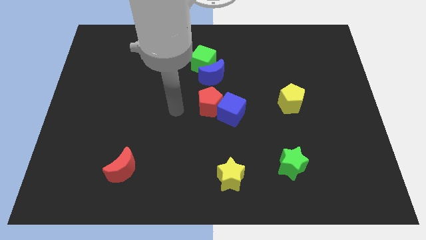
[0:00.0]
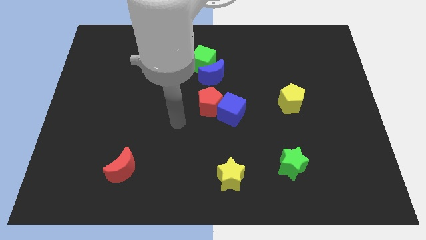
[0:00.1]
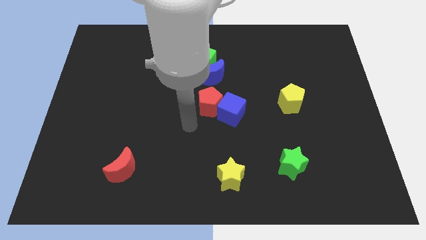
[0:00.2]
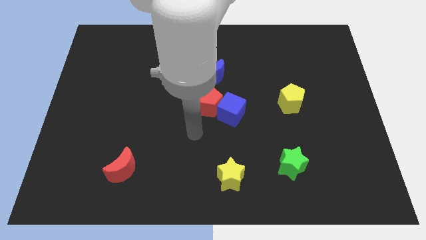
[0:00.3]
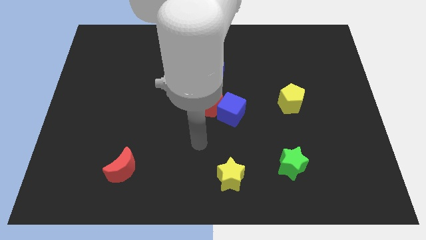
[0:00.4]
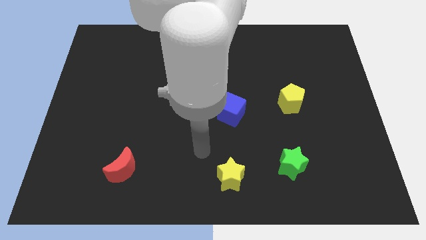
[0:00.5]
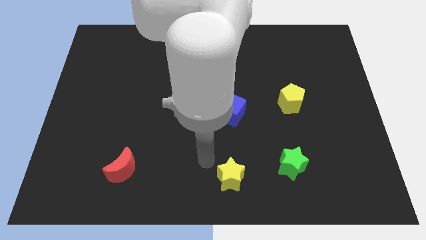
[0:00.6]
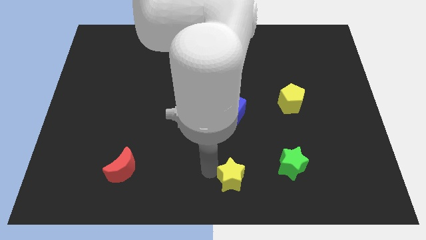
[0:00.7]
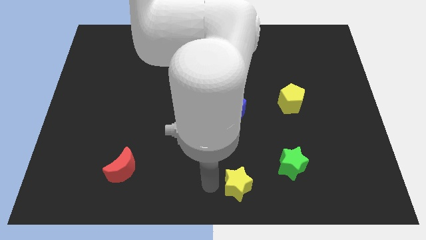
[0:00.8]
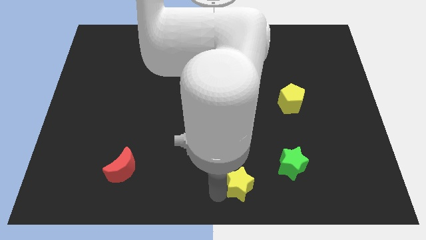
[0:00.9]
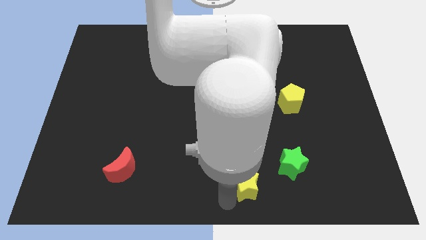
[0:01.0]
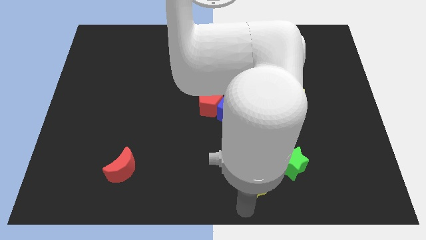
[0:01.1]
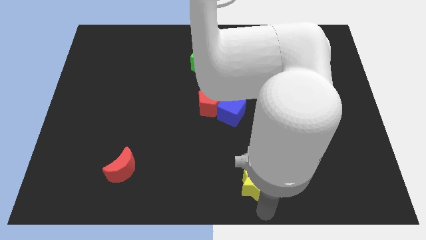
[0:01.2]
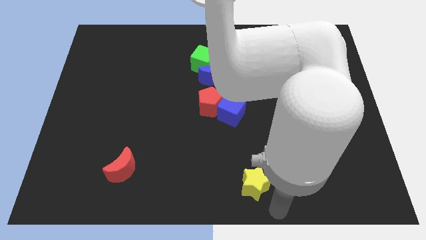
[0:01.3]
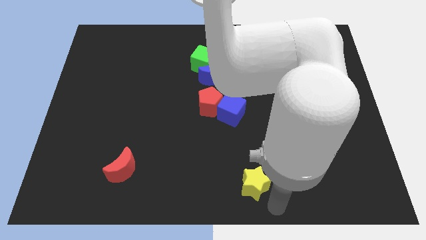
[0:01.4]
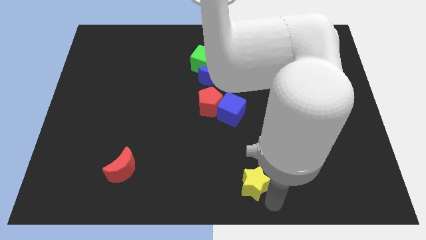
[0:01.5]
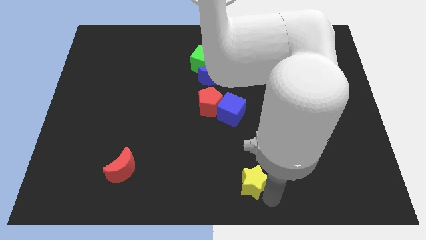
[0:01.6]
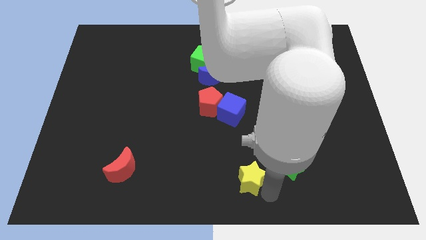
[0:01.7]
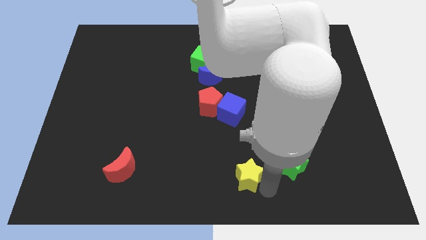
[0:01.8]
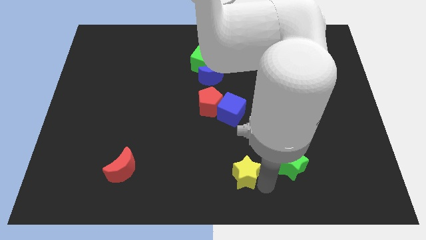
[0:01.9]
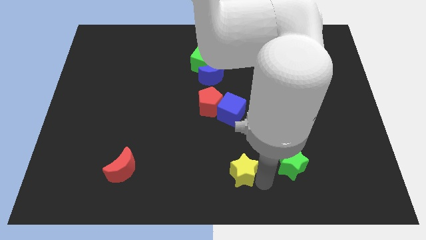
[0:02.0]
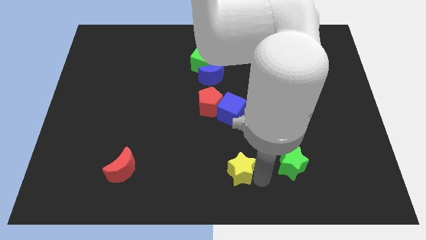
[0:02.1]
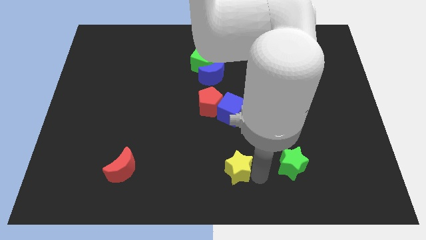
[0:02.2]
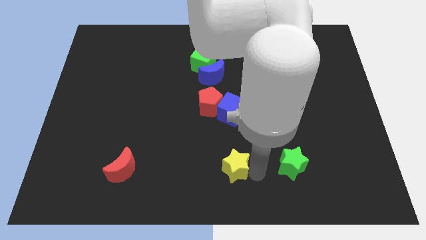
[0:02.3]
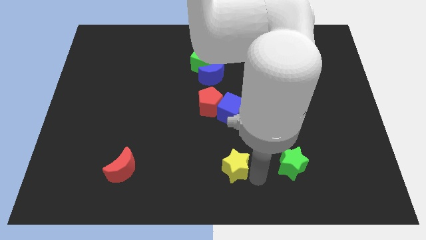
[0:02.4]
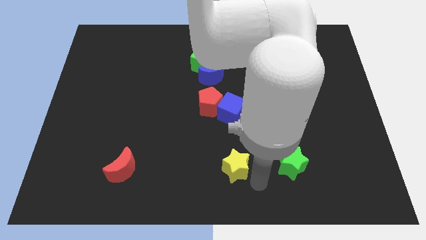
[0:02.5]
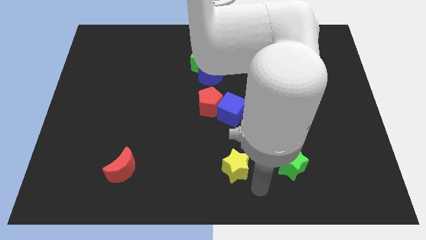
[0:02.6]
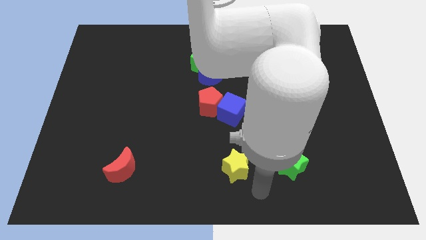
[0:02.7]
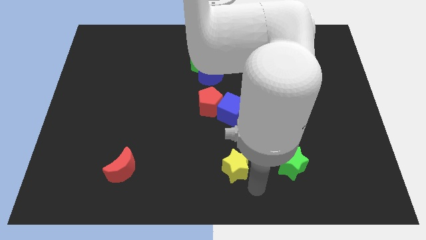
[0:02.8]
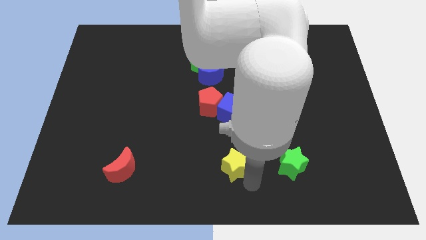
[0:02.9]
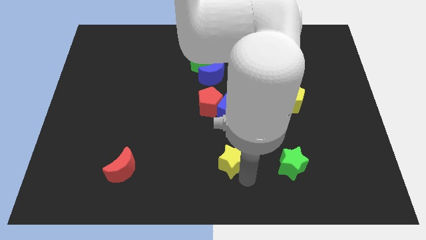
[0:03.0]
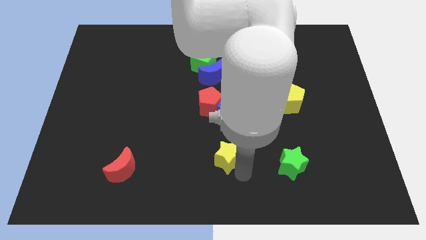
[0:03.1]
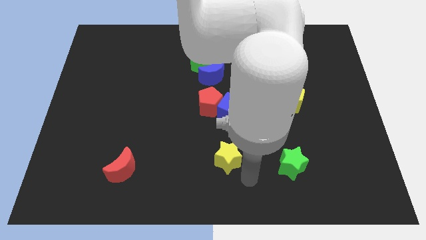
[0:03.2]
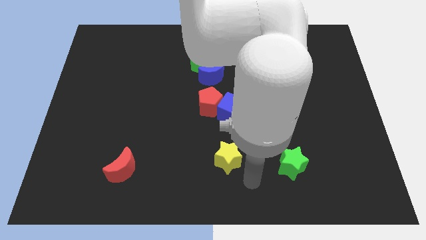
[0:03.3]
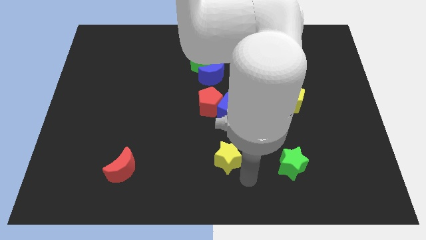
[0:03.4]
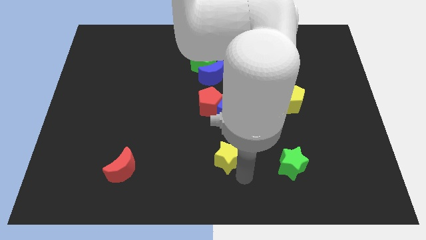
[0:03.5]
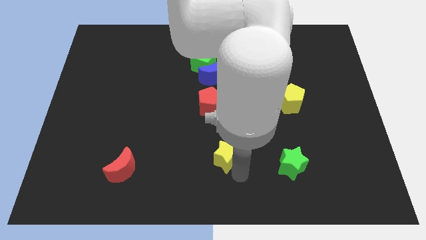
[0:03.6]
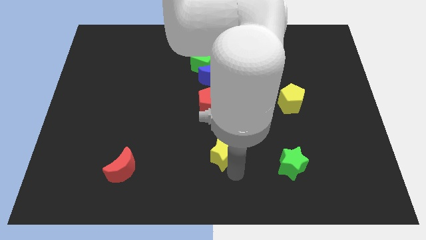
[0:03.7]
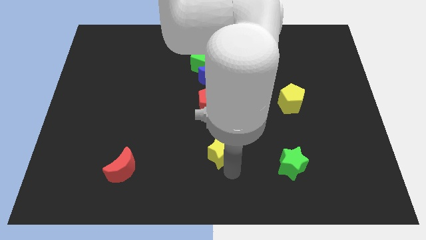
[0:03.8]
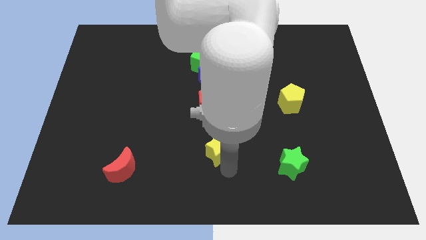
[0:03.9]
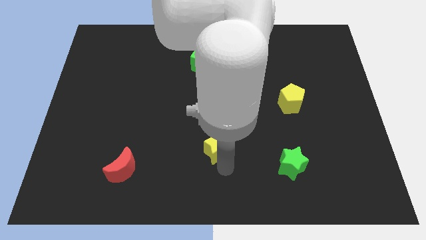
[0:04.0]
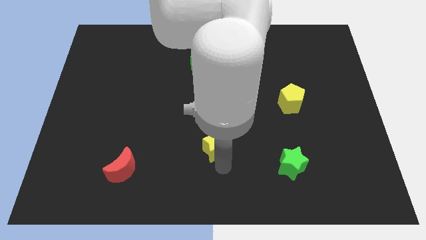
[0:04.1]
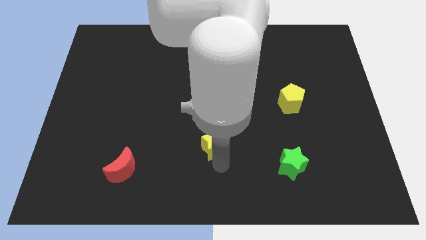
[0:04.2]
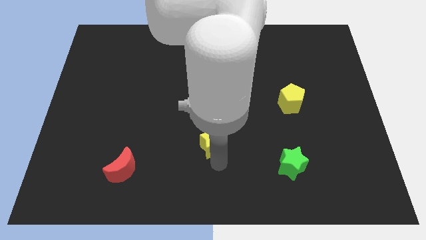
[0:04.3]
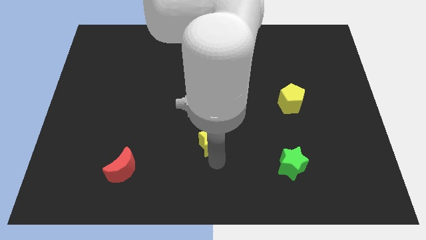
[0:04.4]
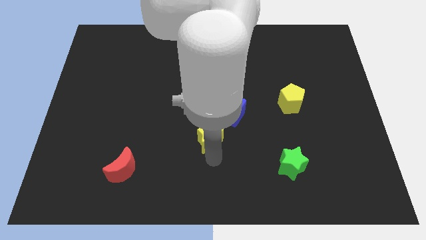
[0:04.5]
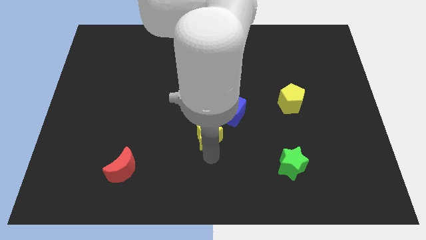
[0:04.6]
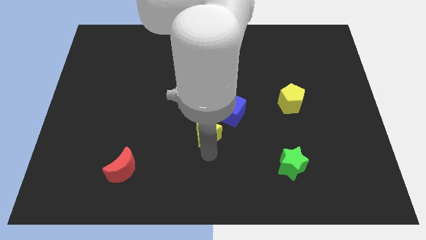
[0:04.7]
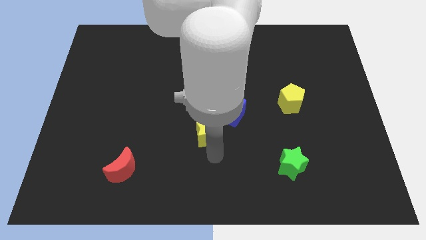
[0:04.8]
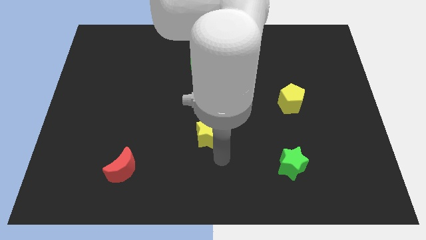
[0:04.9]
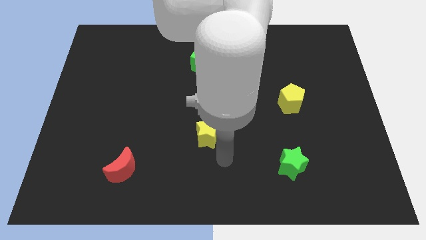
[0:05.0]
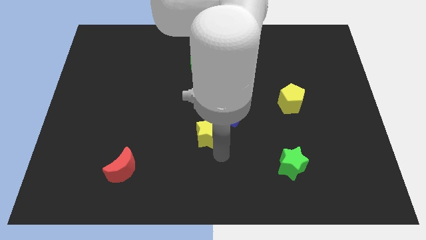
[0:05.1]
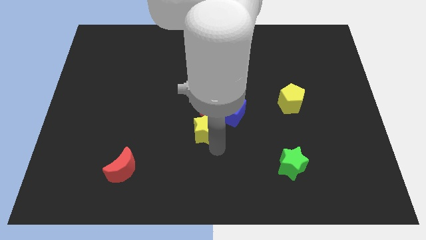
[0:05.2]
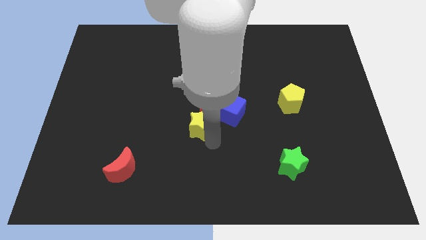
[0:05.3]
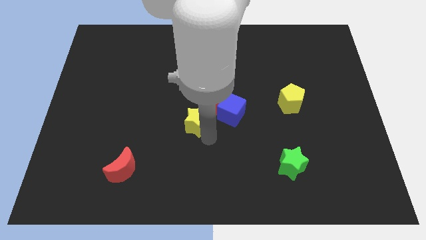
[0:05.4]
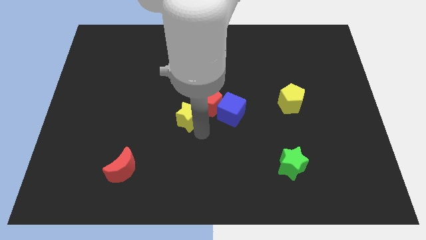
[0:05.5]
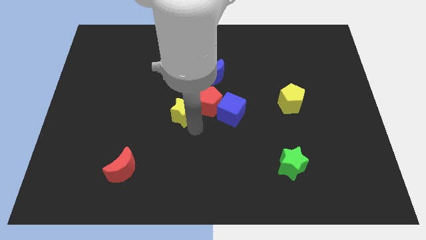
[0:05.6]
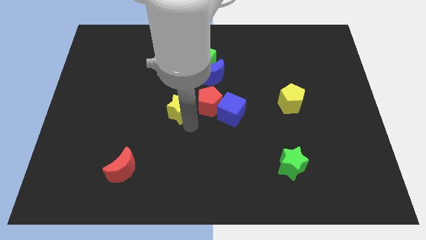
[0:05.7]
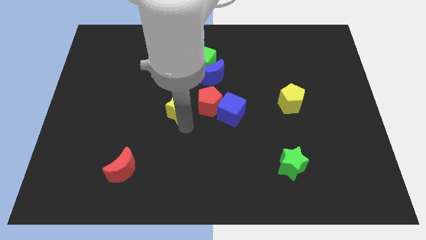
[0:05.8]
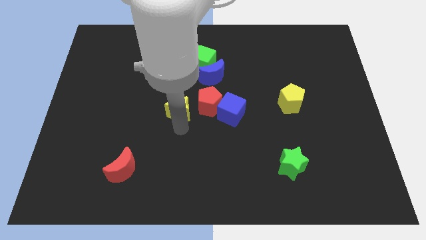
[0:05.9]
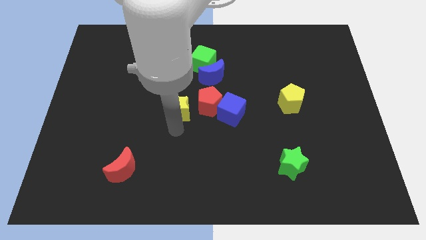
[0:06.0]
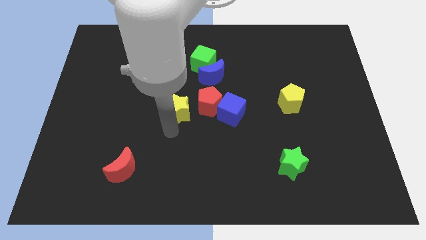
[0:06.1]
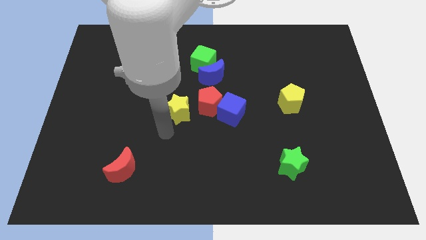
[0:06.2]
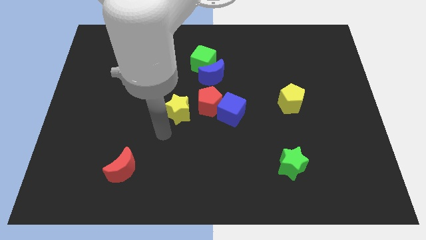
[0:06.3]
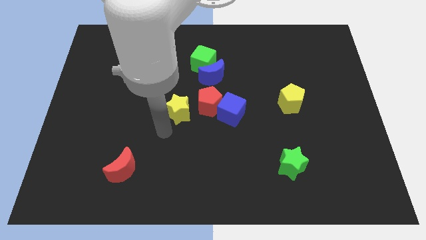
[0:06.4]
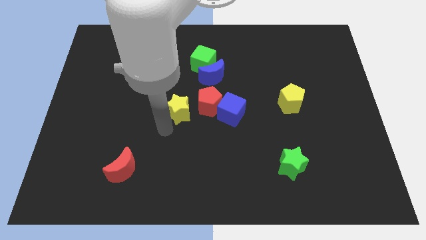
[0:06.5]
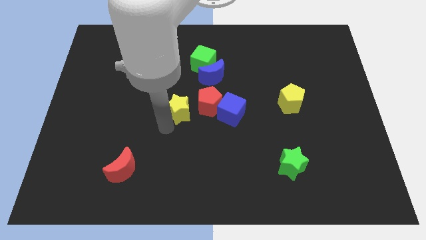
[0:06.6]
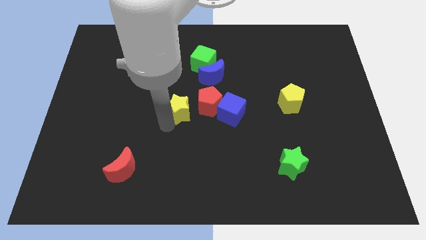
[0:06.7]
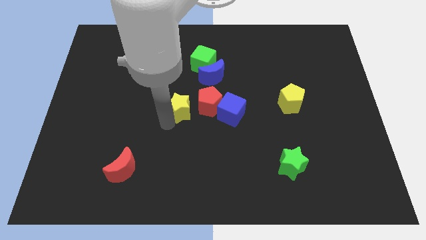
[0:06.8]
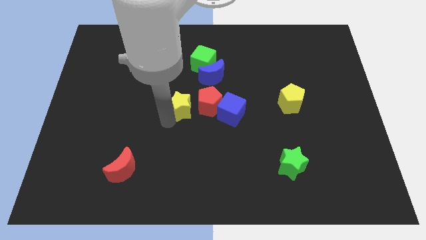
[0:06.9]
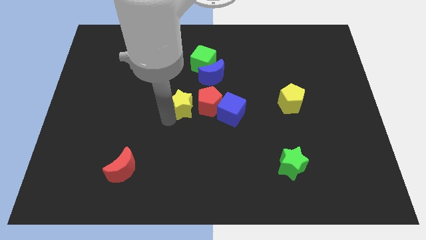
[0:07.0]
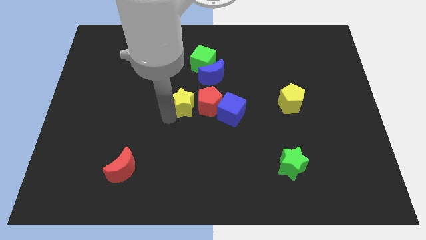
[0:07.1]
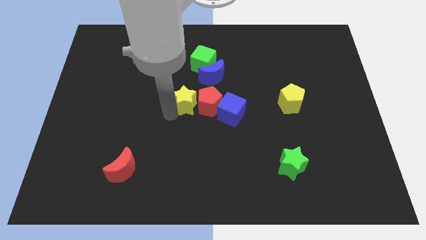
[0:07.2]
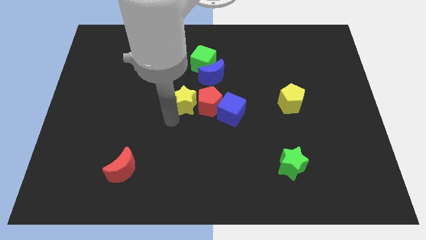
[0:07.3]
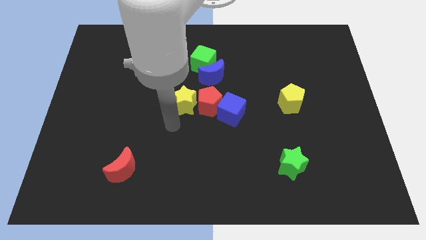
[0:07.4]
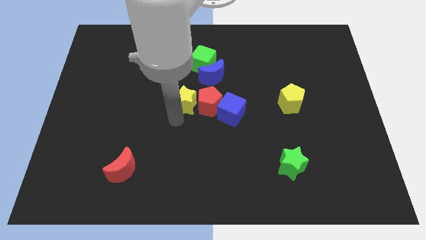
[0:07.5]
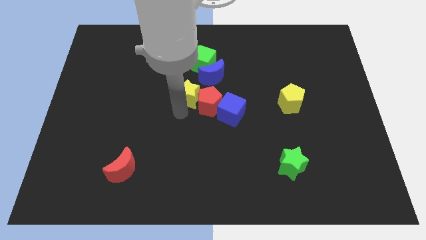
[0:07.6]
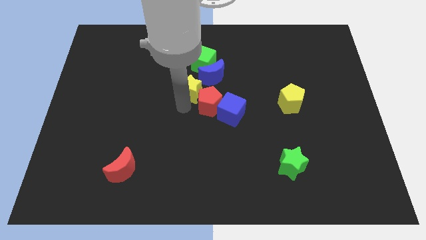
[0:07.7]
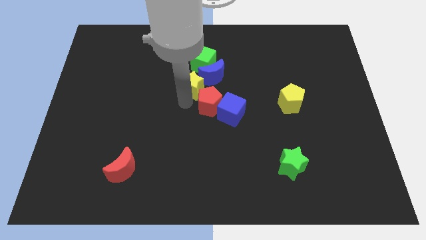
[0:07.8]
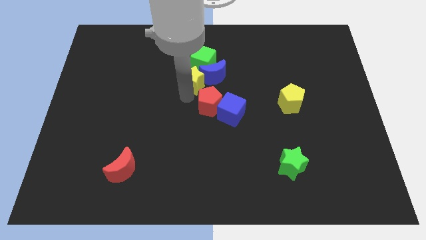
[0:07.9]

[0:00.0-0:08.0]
push the yellow star next to the blue moon
